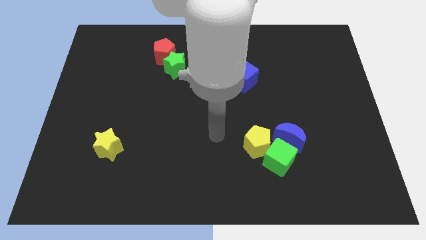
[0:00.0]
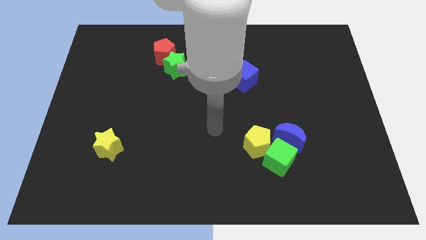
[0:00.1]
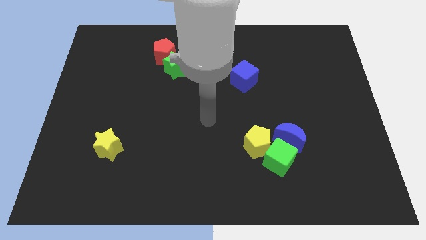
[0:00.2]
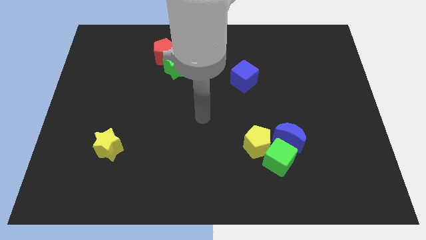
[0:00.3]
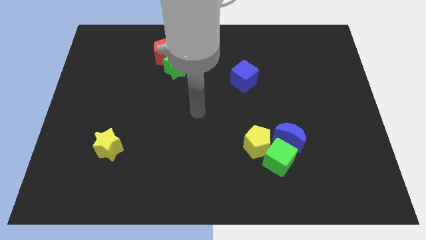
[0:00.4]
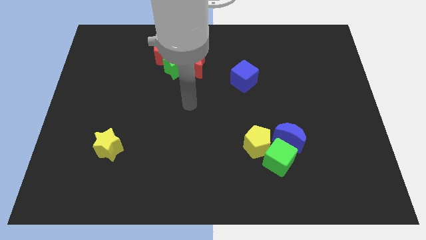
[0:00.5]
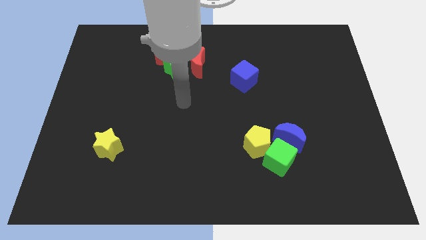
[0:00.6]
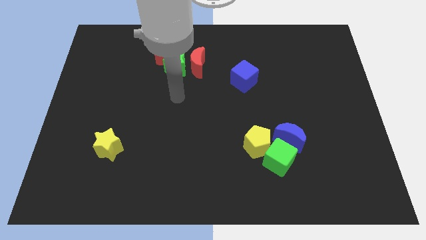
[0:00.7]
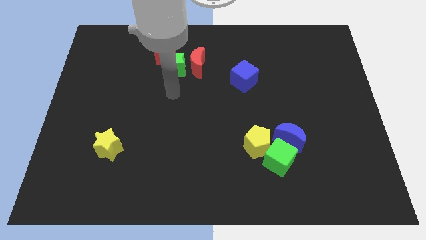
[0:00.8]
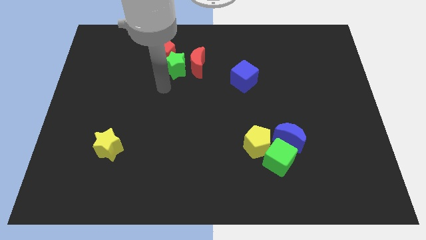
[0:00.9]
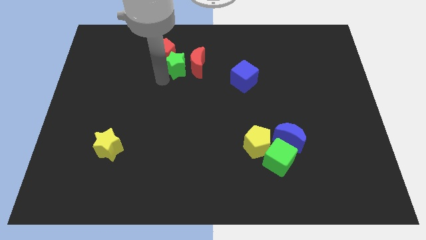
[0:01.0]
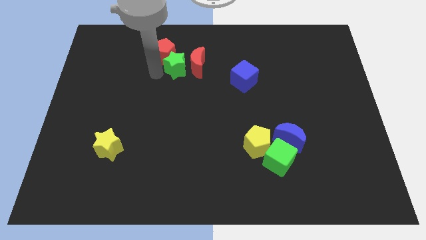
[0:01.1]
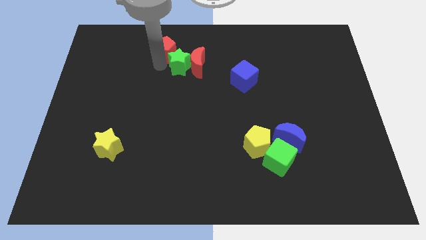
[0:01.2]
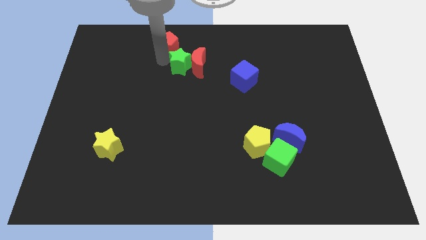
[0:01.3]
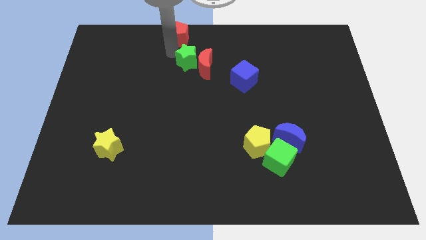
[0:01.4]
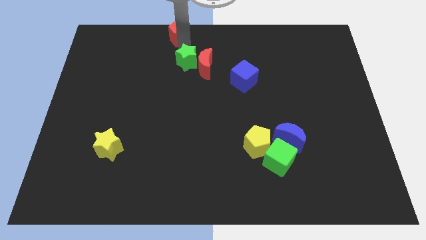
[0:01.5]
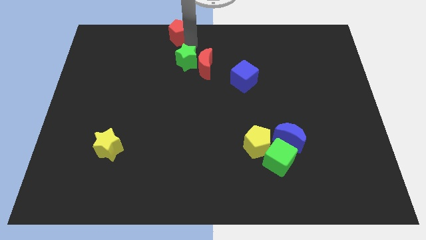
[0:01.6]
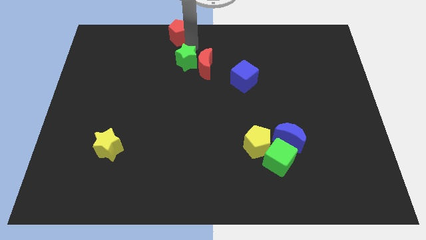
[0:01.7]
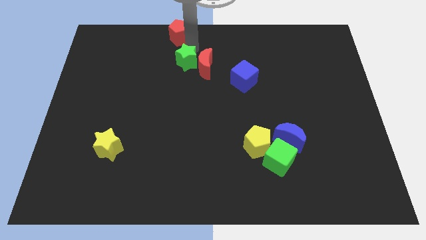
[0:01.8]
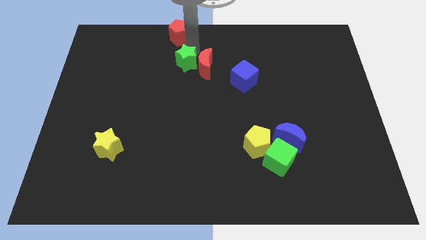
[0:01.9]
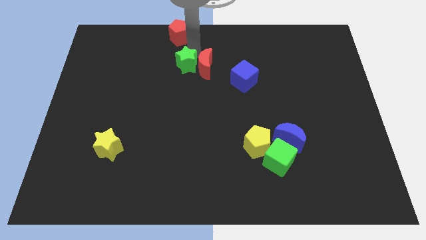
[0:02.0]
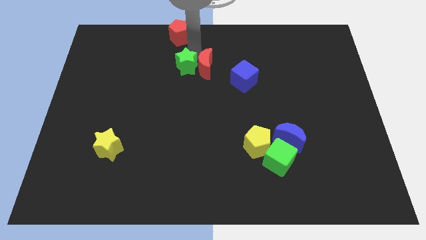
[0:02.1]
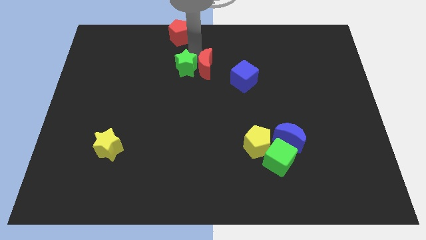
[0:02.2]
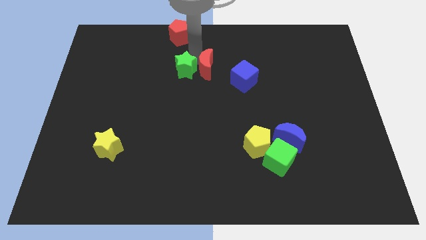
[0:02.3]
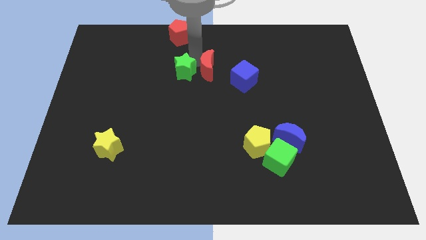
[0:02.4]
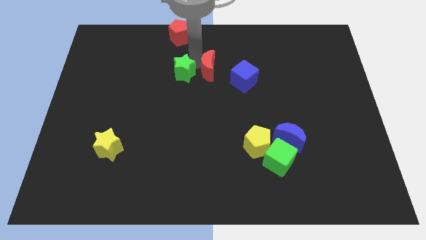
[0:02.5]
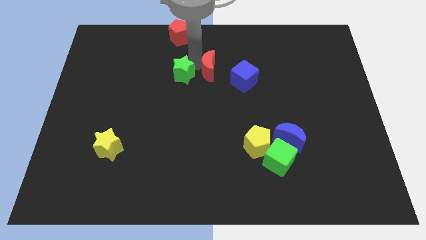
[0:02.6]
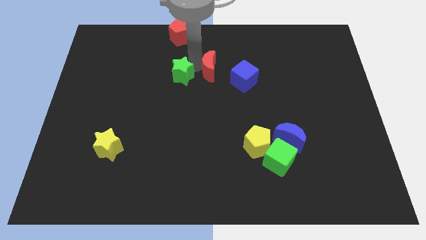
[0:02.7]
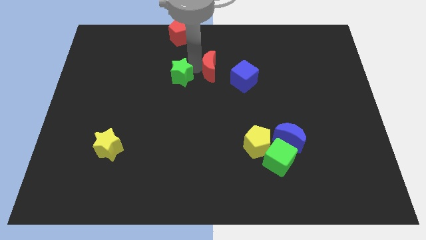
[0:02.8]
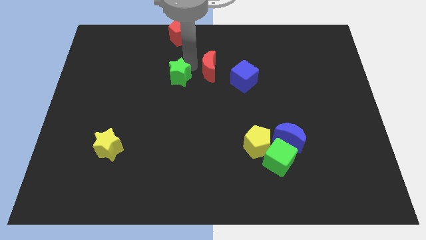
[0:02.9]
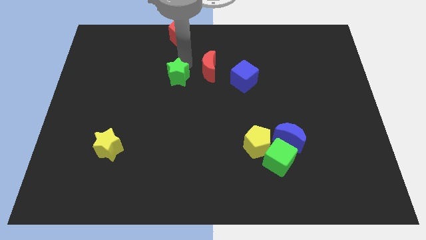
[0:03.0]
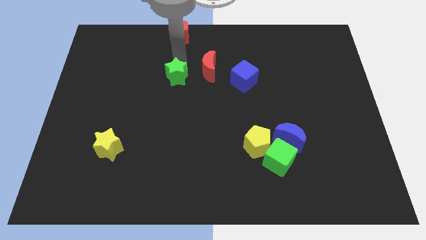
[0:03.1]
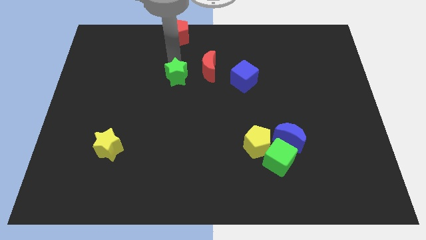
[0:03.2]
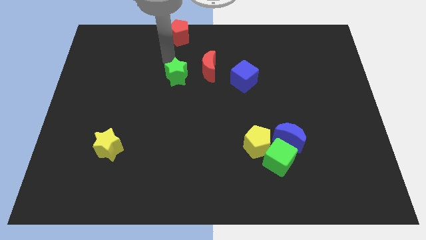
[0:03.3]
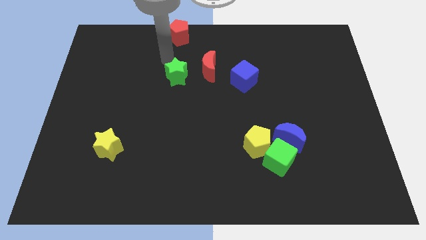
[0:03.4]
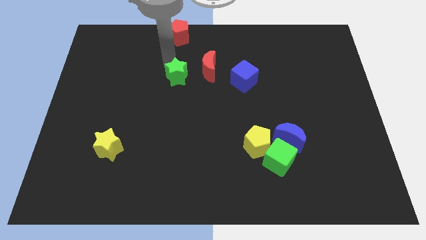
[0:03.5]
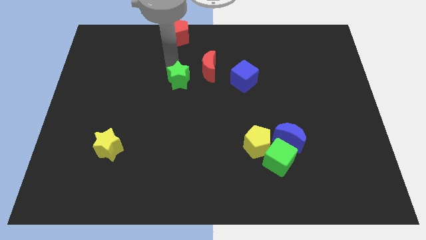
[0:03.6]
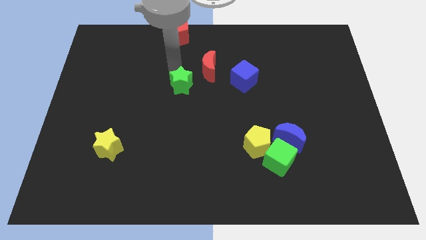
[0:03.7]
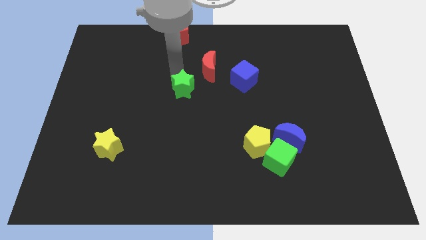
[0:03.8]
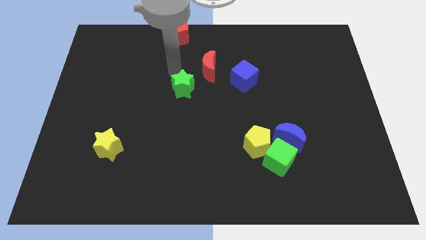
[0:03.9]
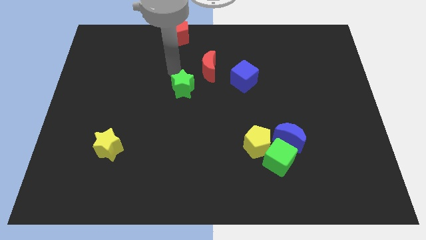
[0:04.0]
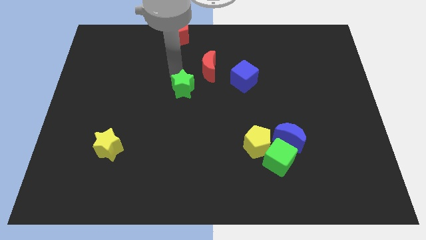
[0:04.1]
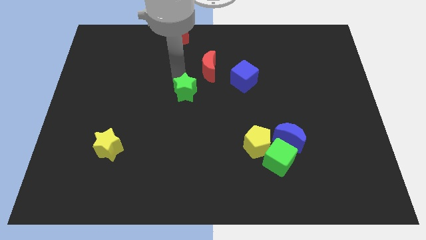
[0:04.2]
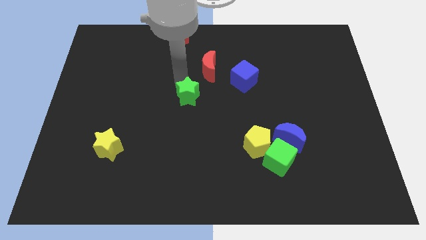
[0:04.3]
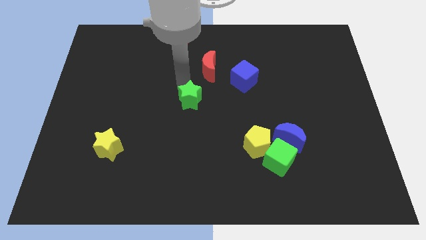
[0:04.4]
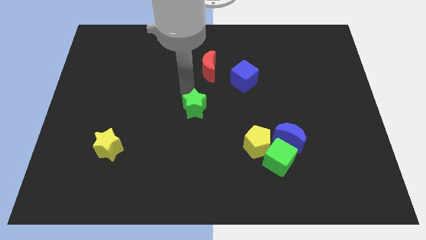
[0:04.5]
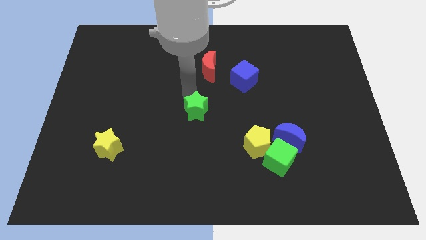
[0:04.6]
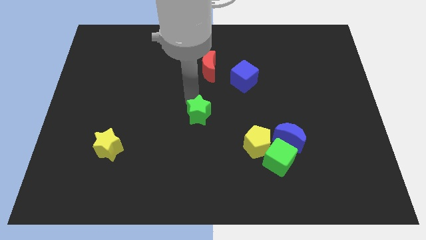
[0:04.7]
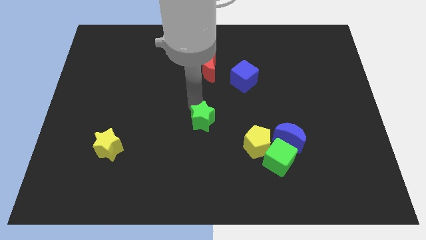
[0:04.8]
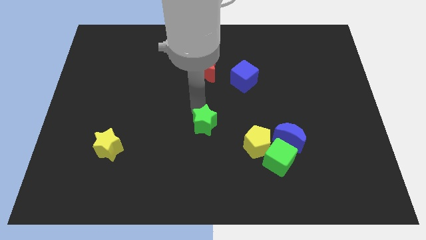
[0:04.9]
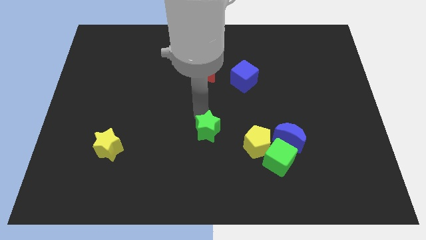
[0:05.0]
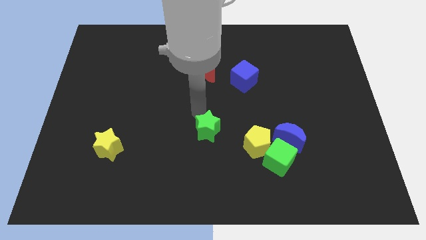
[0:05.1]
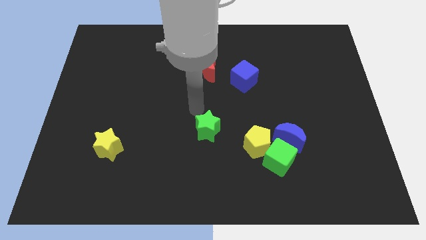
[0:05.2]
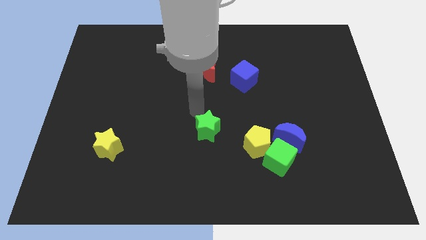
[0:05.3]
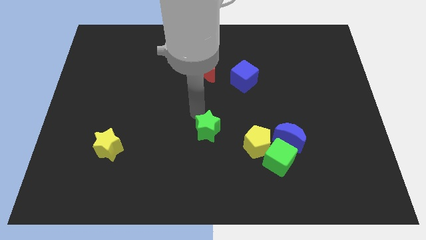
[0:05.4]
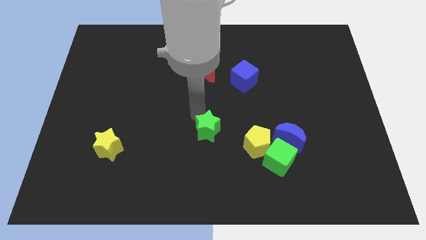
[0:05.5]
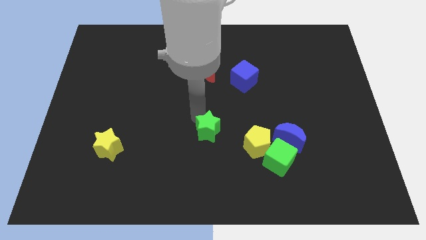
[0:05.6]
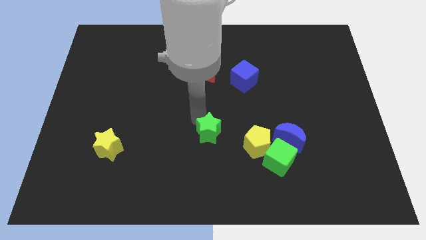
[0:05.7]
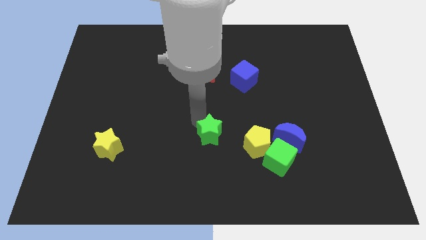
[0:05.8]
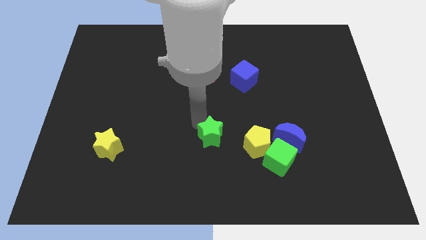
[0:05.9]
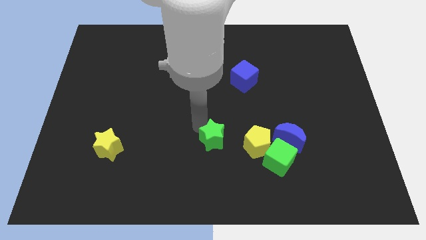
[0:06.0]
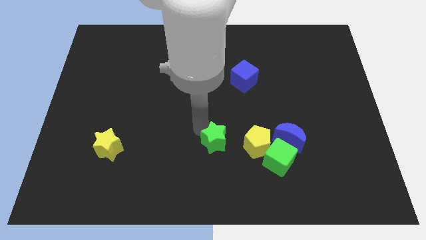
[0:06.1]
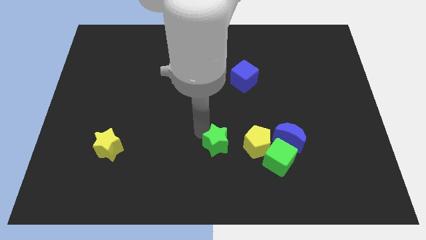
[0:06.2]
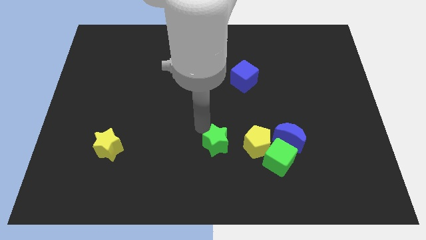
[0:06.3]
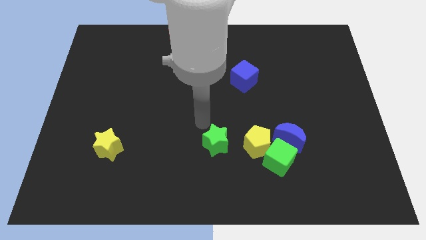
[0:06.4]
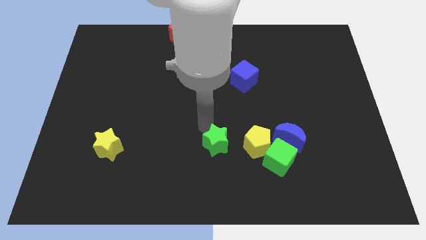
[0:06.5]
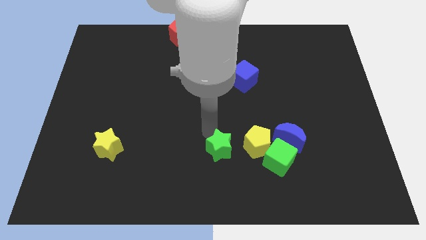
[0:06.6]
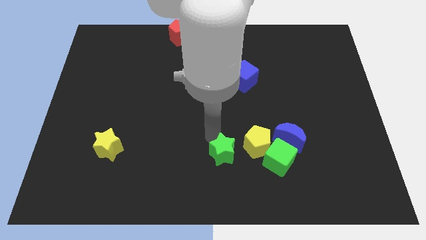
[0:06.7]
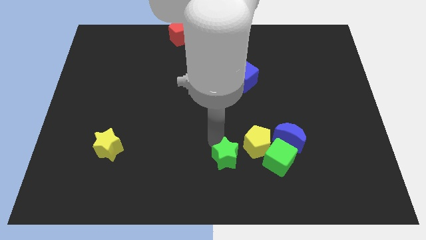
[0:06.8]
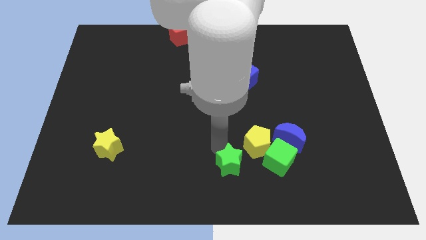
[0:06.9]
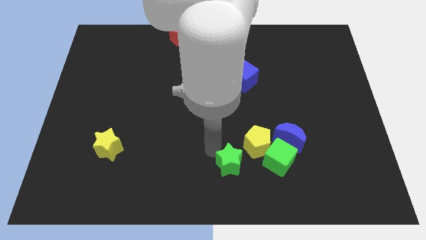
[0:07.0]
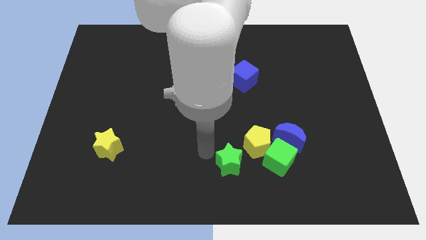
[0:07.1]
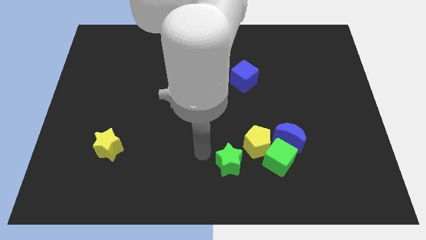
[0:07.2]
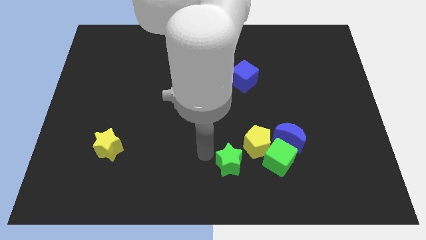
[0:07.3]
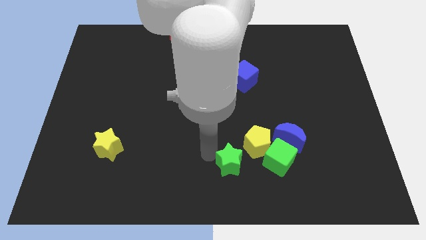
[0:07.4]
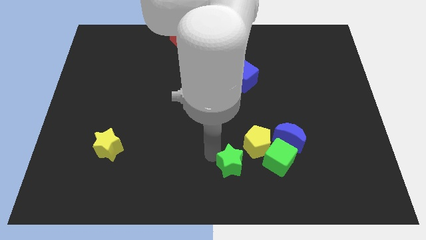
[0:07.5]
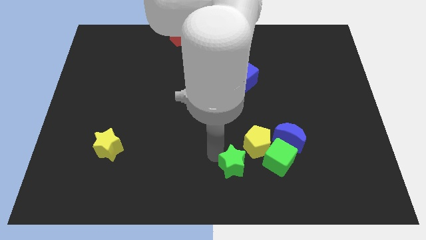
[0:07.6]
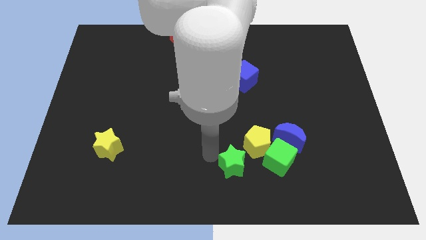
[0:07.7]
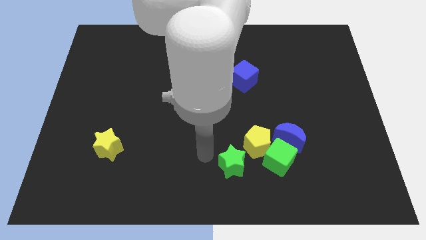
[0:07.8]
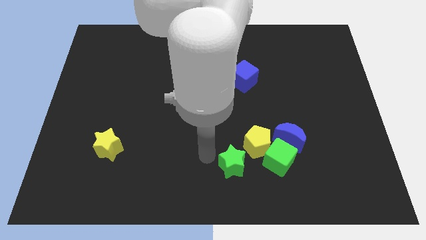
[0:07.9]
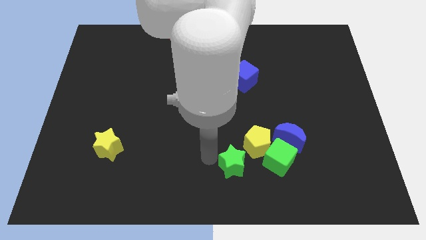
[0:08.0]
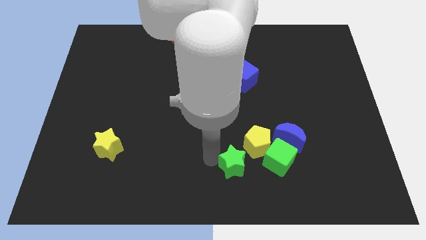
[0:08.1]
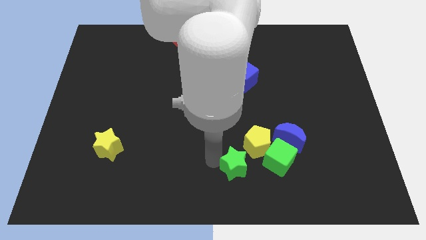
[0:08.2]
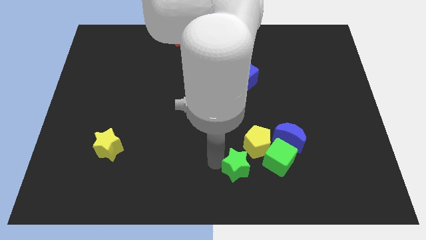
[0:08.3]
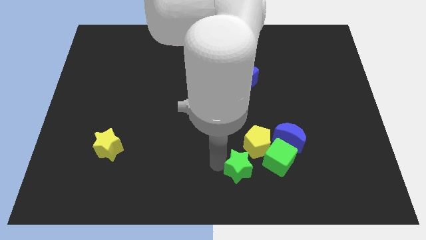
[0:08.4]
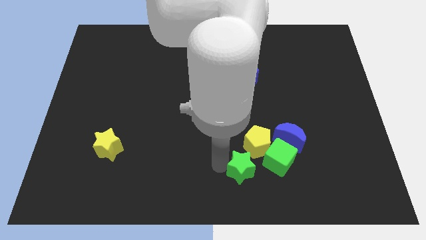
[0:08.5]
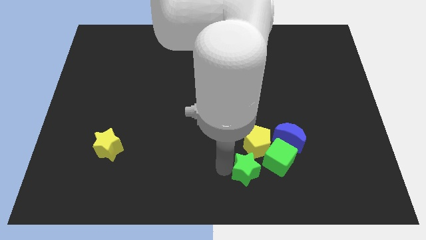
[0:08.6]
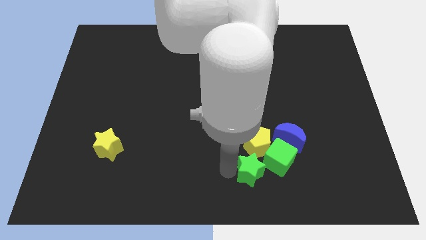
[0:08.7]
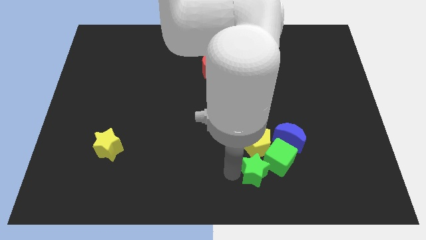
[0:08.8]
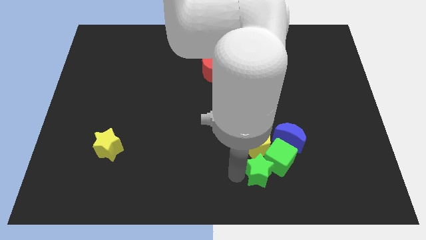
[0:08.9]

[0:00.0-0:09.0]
slide the green star to the bottom right of the yellow pentagon
